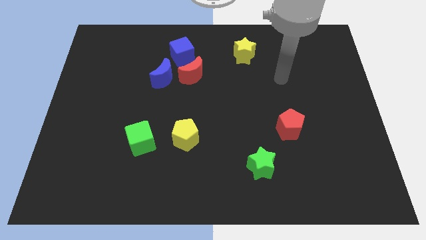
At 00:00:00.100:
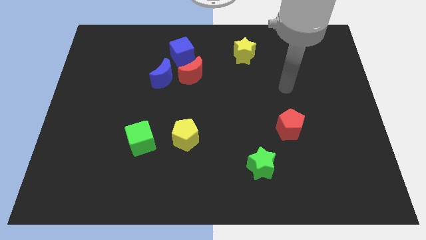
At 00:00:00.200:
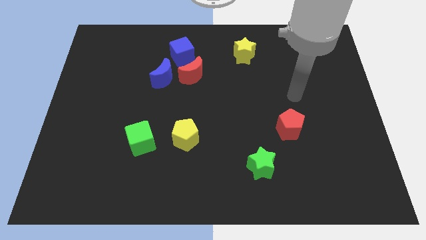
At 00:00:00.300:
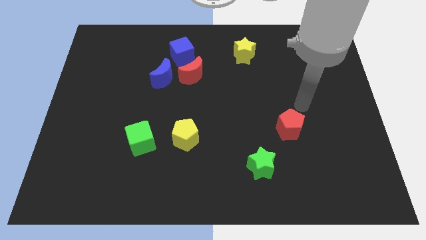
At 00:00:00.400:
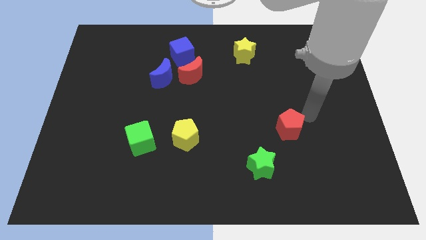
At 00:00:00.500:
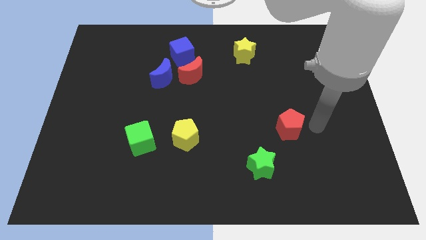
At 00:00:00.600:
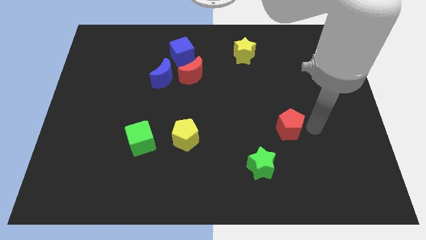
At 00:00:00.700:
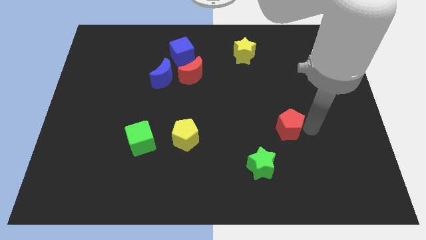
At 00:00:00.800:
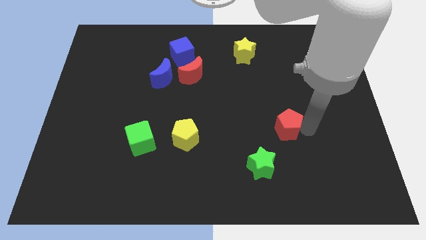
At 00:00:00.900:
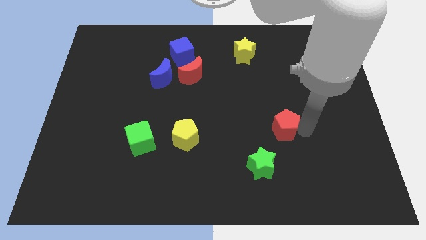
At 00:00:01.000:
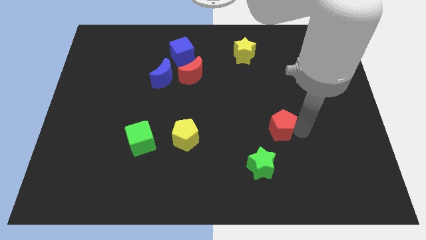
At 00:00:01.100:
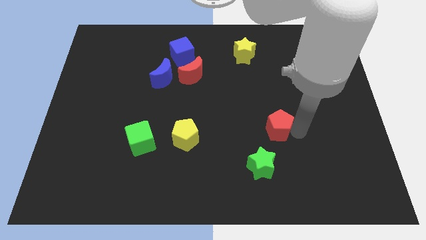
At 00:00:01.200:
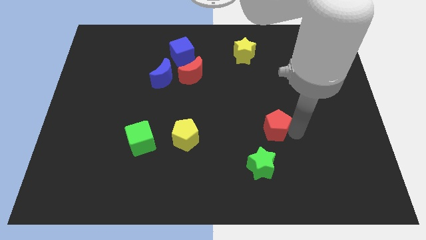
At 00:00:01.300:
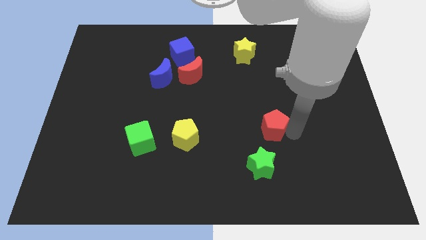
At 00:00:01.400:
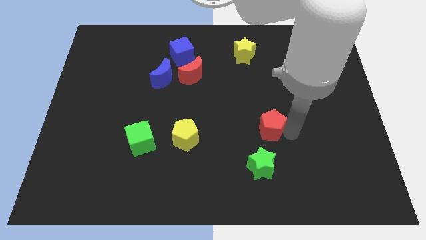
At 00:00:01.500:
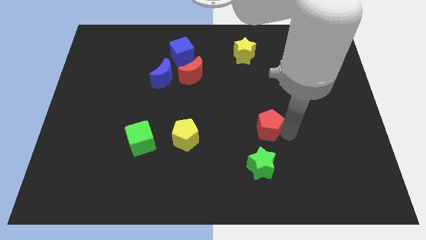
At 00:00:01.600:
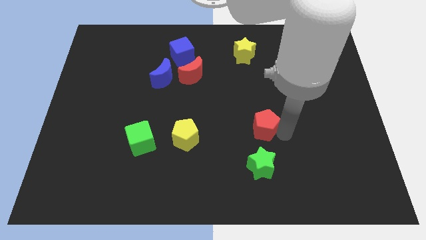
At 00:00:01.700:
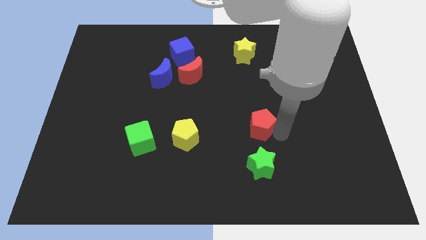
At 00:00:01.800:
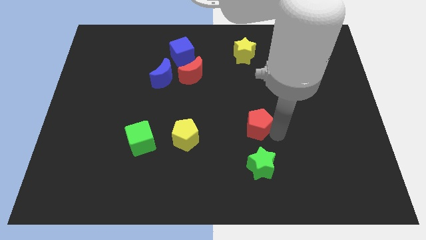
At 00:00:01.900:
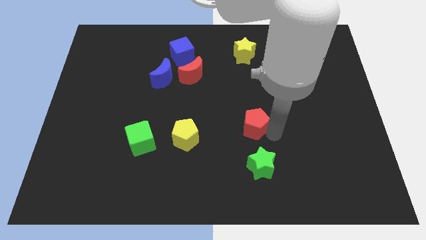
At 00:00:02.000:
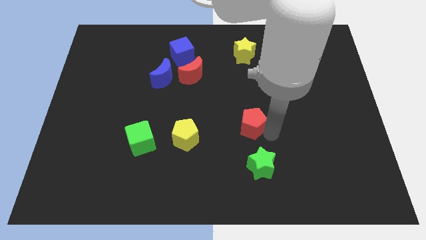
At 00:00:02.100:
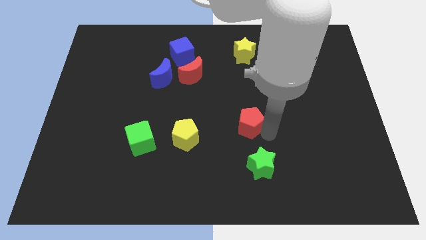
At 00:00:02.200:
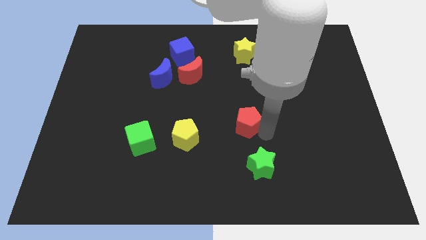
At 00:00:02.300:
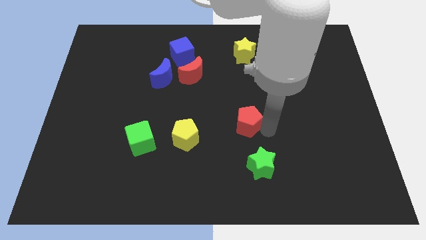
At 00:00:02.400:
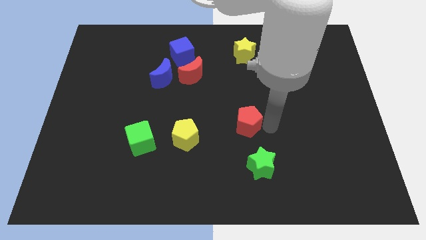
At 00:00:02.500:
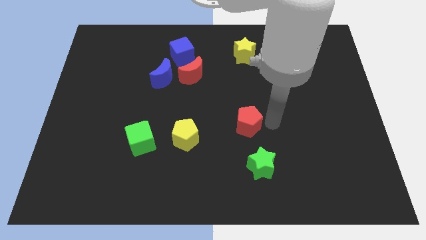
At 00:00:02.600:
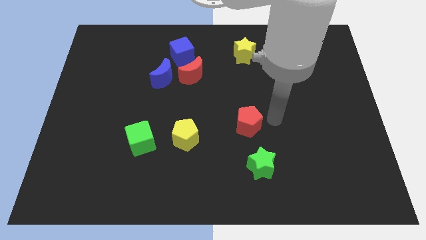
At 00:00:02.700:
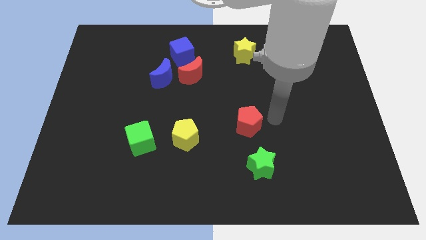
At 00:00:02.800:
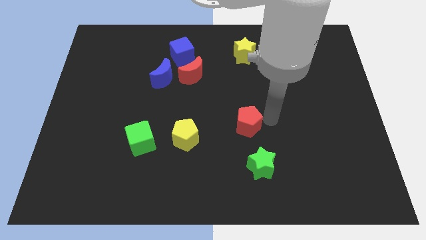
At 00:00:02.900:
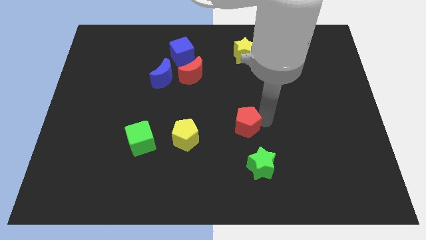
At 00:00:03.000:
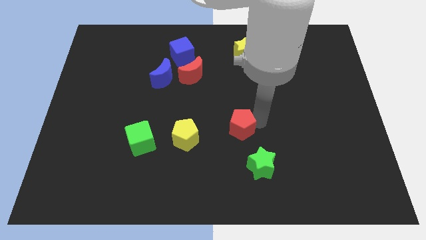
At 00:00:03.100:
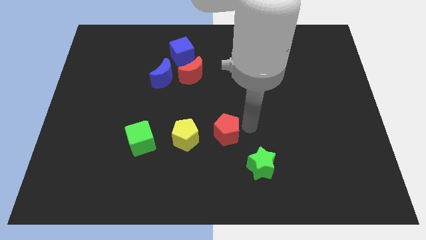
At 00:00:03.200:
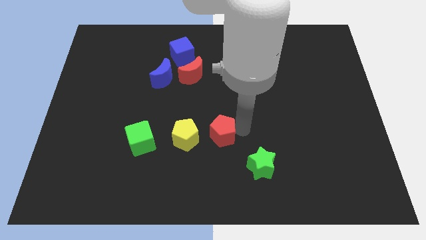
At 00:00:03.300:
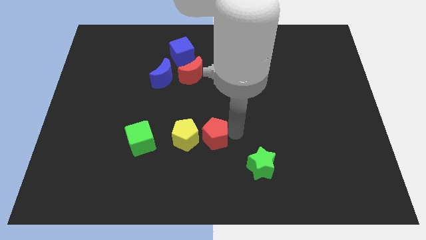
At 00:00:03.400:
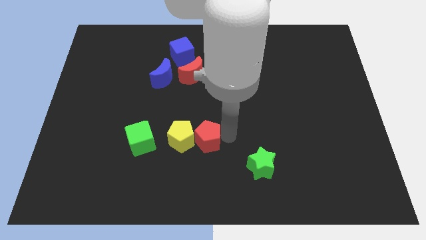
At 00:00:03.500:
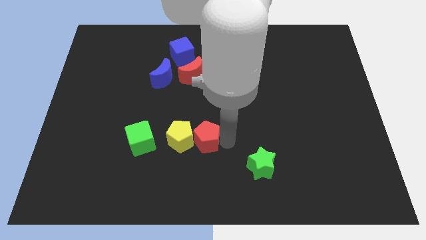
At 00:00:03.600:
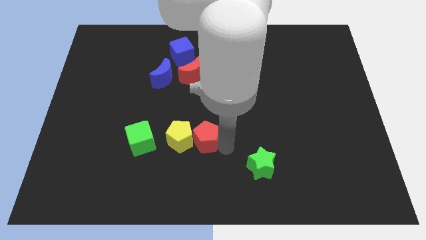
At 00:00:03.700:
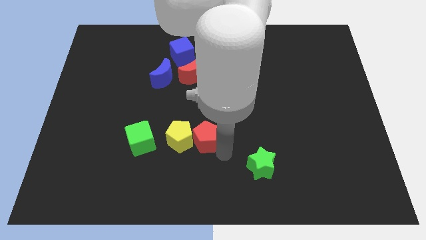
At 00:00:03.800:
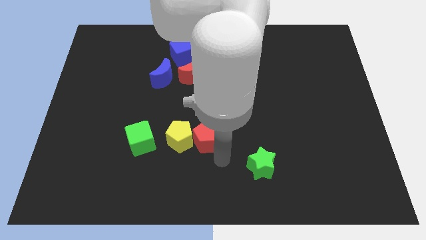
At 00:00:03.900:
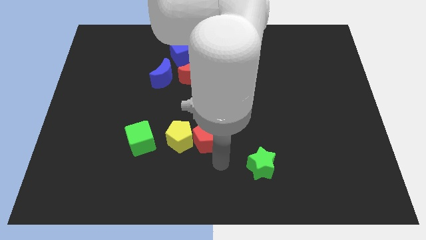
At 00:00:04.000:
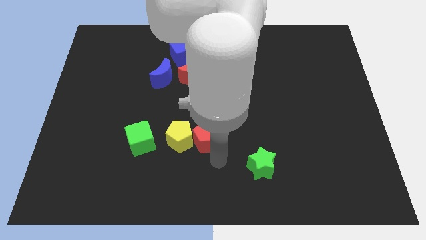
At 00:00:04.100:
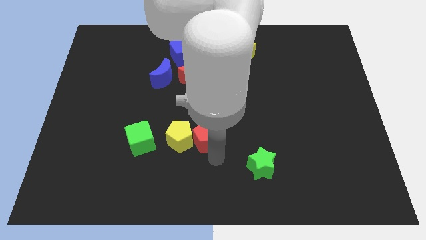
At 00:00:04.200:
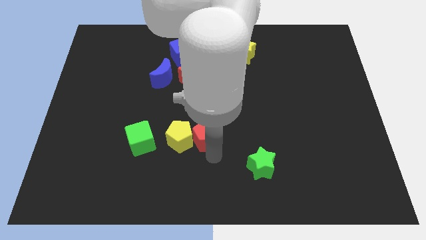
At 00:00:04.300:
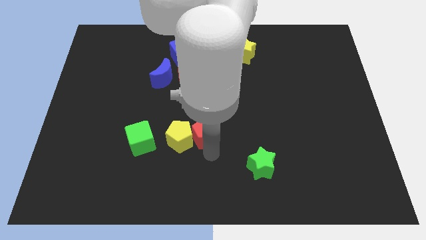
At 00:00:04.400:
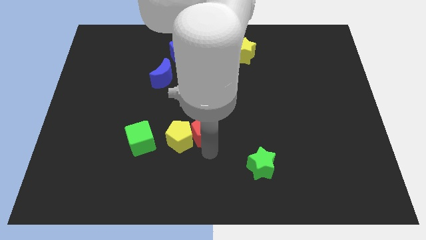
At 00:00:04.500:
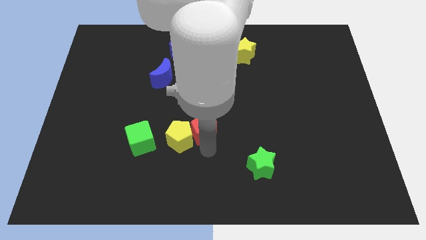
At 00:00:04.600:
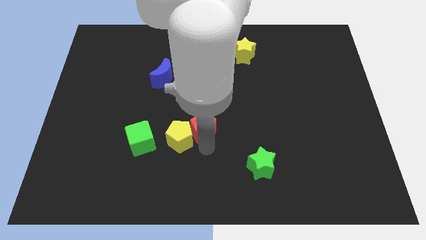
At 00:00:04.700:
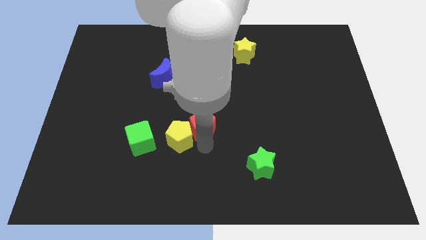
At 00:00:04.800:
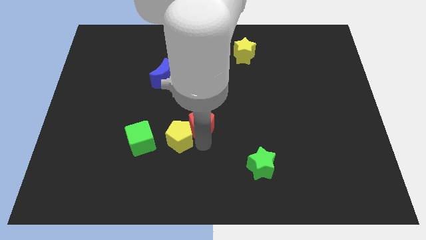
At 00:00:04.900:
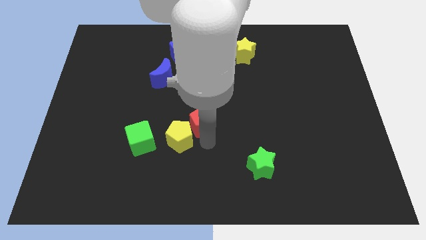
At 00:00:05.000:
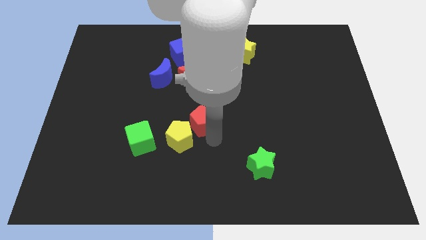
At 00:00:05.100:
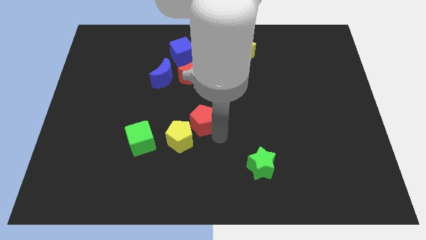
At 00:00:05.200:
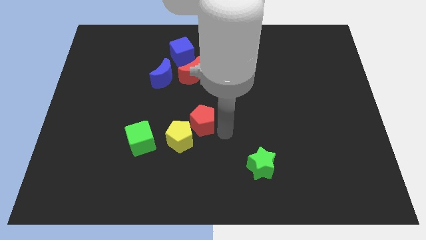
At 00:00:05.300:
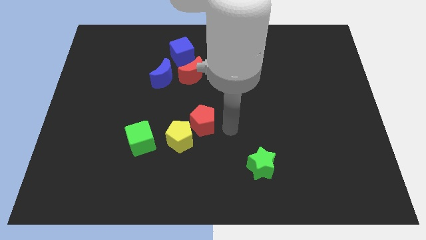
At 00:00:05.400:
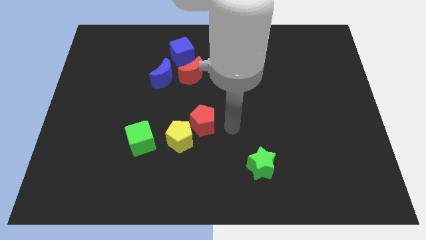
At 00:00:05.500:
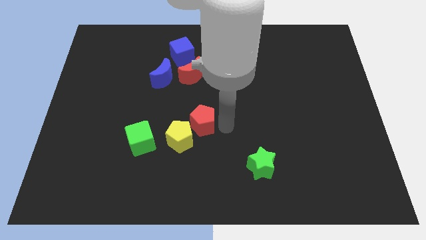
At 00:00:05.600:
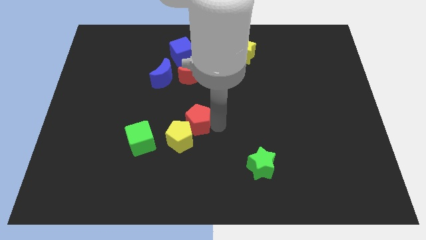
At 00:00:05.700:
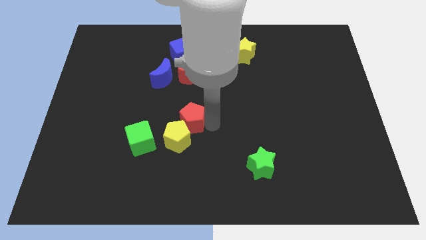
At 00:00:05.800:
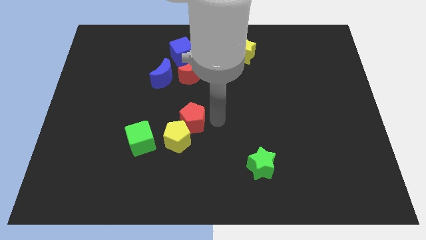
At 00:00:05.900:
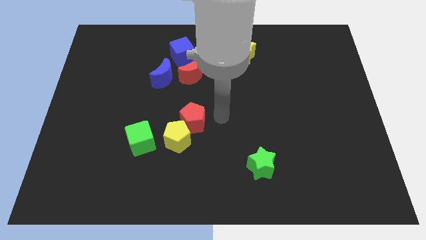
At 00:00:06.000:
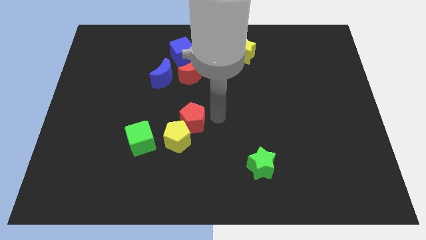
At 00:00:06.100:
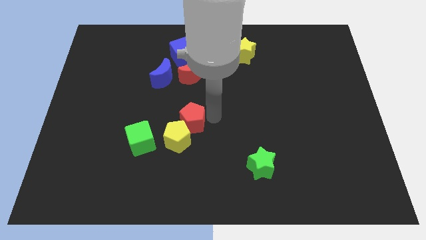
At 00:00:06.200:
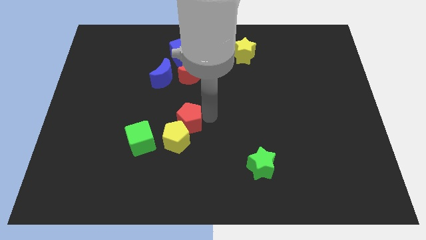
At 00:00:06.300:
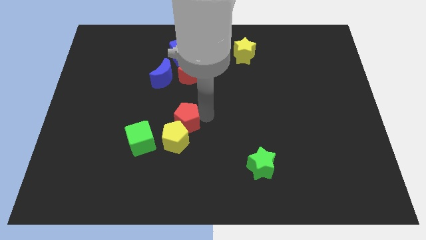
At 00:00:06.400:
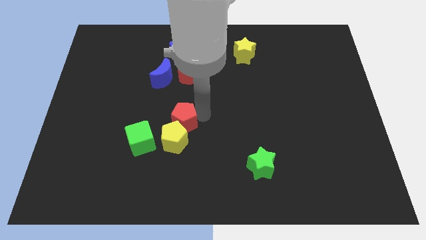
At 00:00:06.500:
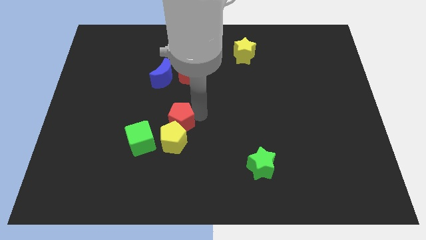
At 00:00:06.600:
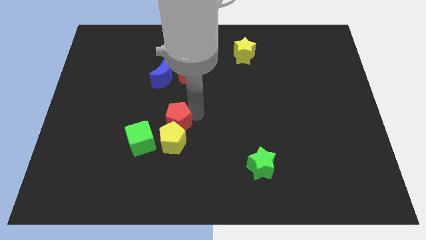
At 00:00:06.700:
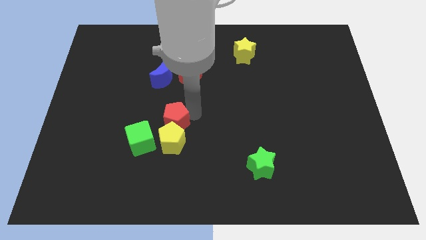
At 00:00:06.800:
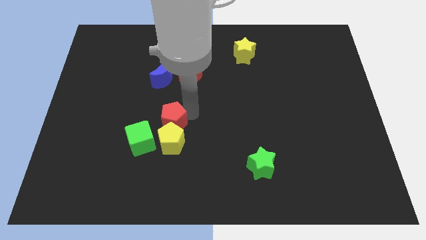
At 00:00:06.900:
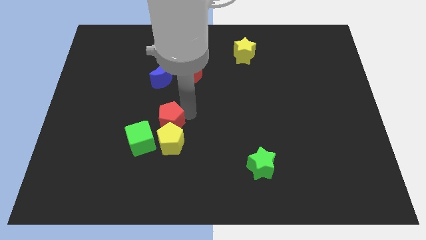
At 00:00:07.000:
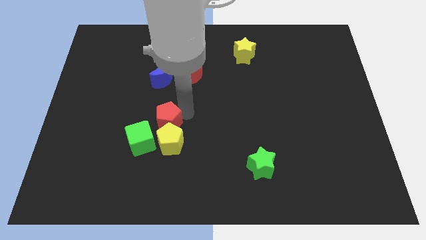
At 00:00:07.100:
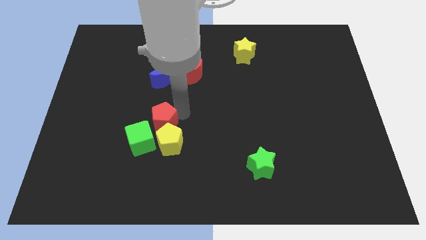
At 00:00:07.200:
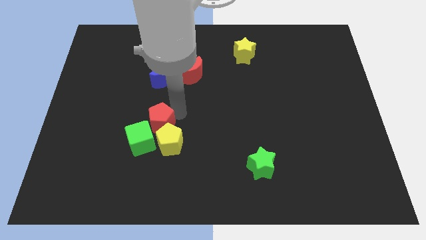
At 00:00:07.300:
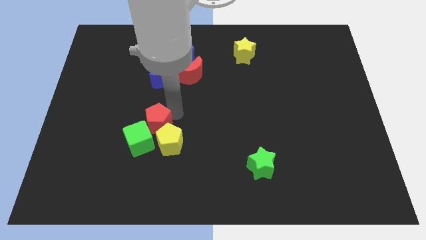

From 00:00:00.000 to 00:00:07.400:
push the red pentagon next to the green cube

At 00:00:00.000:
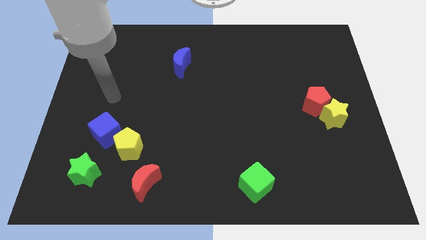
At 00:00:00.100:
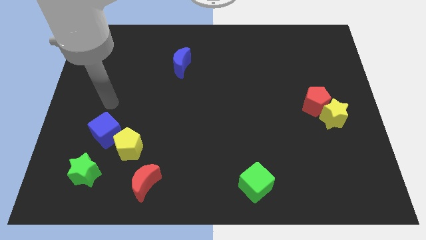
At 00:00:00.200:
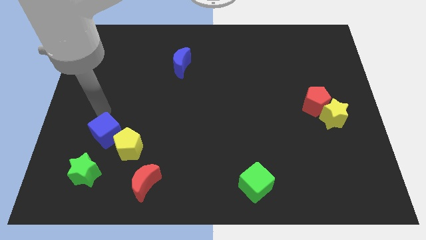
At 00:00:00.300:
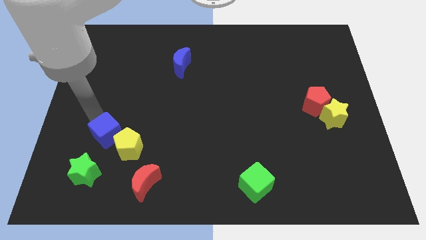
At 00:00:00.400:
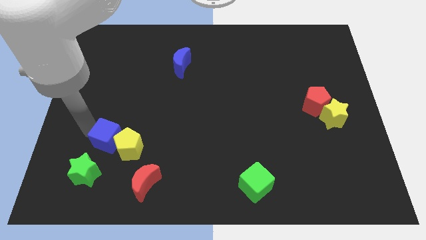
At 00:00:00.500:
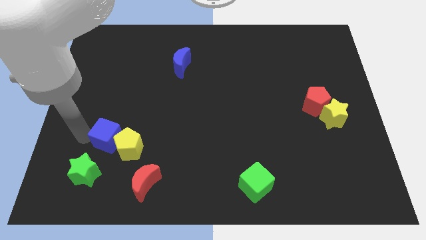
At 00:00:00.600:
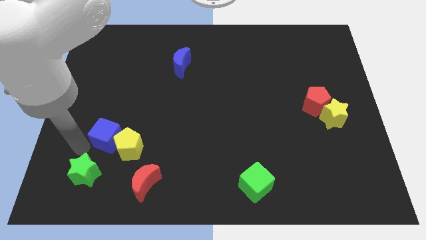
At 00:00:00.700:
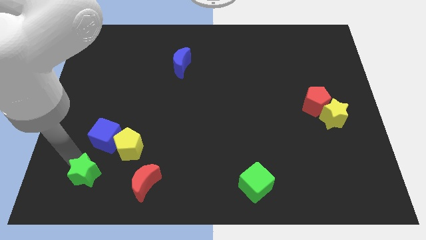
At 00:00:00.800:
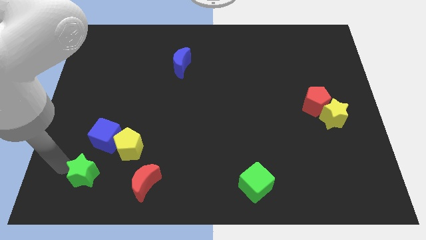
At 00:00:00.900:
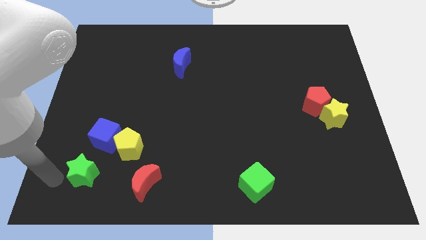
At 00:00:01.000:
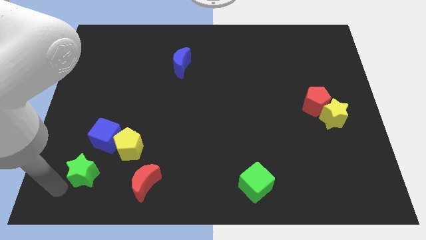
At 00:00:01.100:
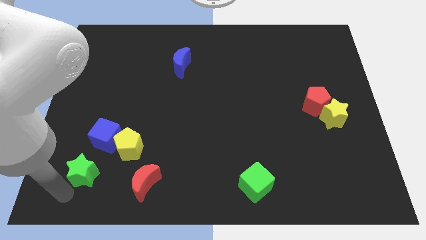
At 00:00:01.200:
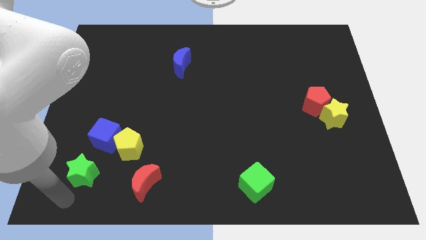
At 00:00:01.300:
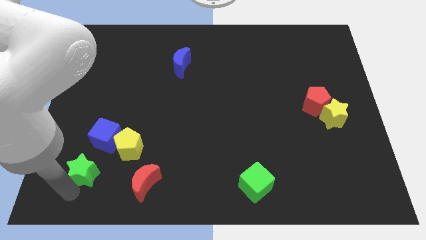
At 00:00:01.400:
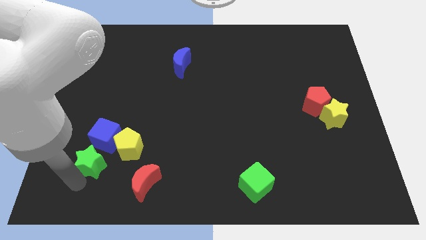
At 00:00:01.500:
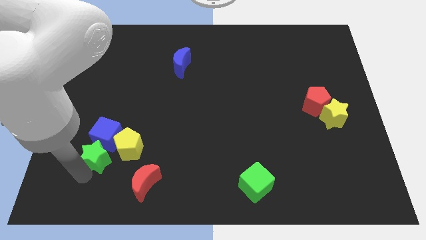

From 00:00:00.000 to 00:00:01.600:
push the green star close to the blue cube
